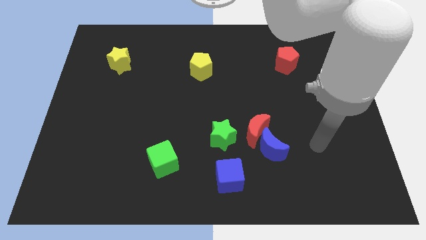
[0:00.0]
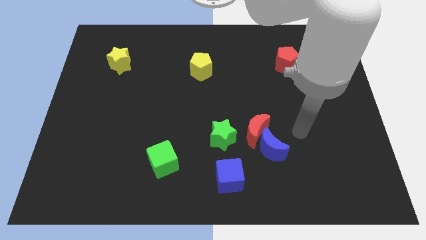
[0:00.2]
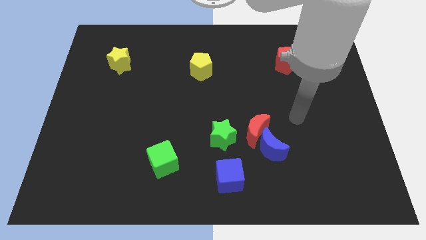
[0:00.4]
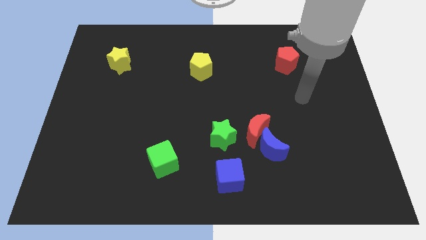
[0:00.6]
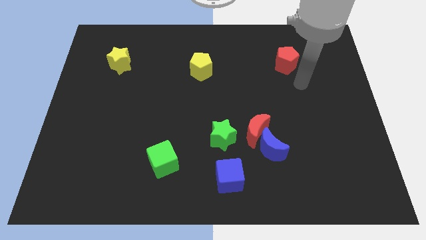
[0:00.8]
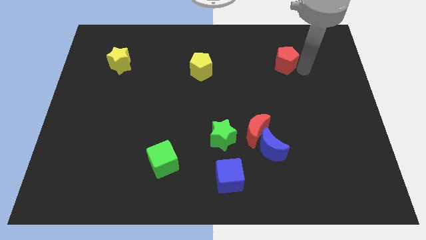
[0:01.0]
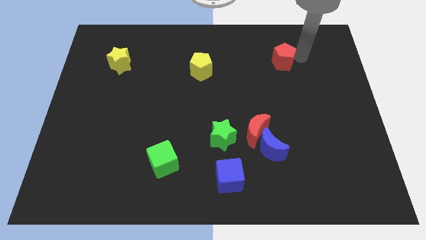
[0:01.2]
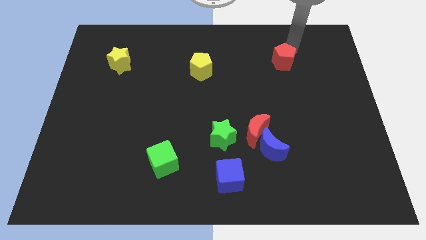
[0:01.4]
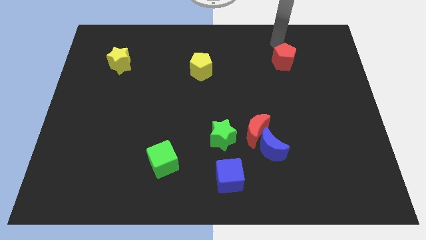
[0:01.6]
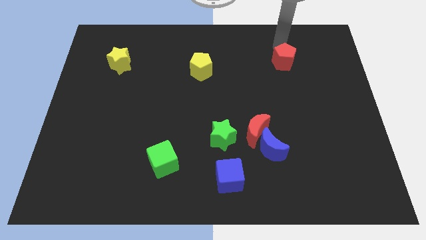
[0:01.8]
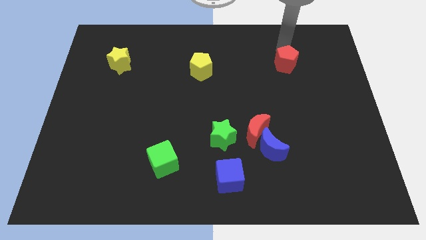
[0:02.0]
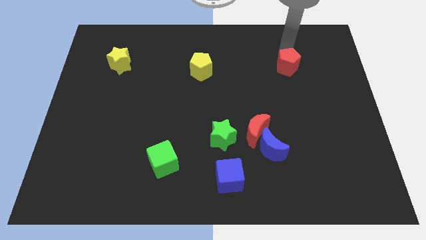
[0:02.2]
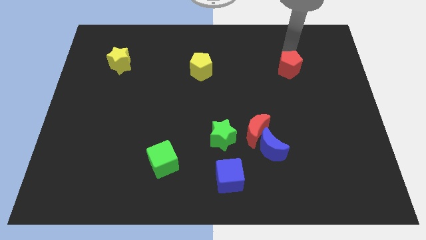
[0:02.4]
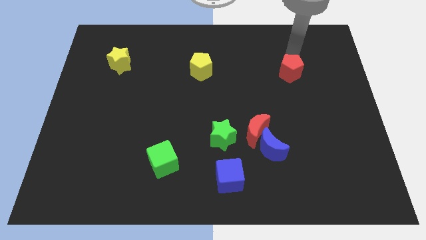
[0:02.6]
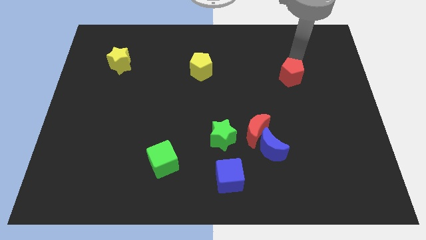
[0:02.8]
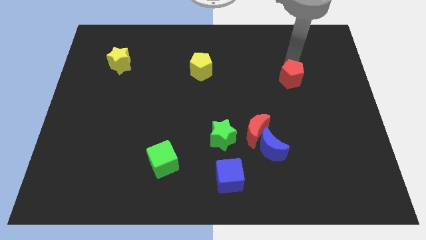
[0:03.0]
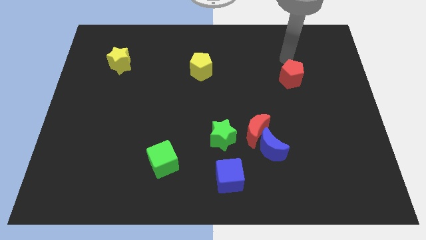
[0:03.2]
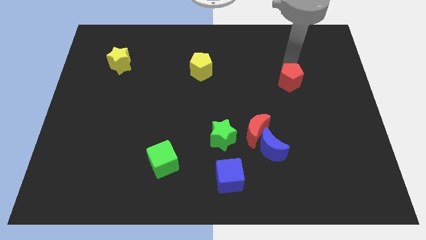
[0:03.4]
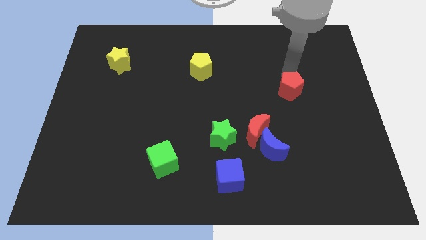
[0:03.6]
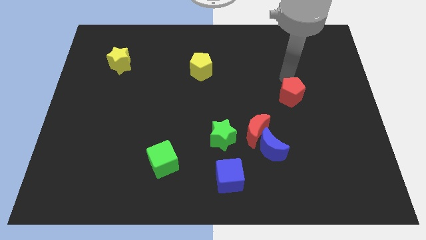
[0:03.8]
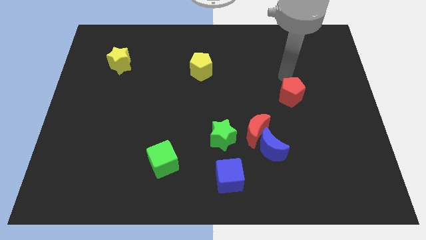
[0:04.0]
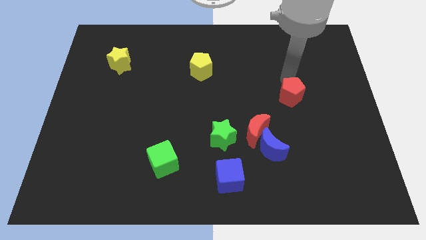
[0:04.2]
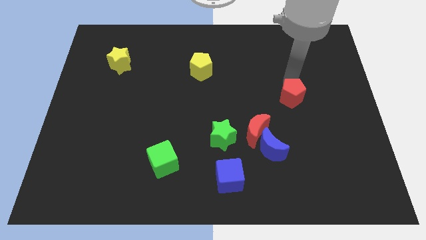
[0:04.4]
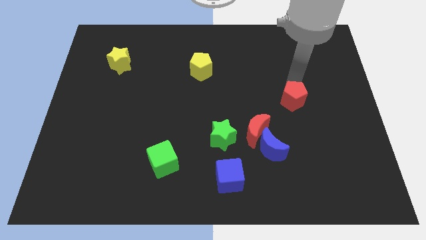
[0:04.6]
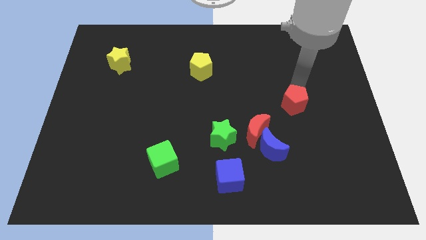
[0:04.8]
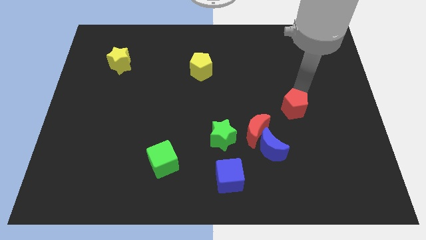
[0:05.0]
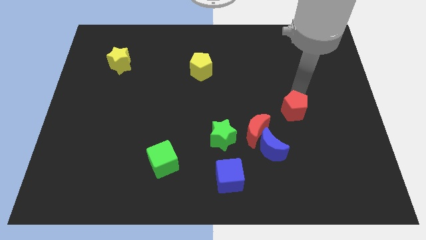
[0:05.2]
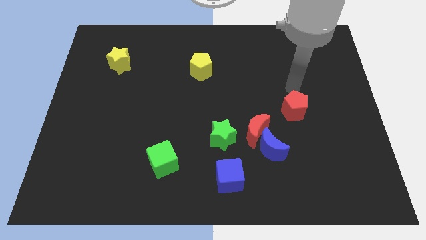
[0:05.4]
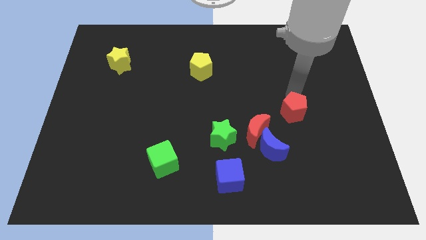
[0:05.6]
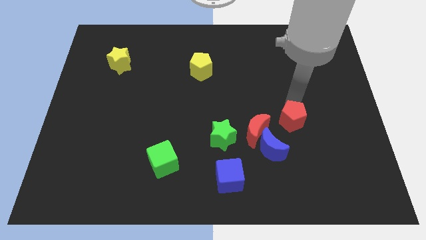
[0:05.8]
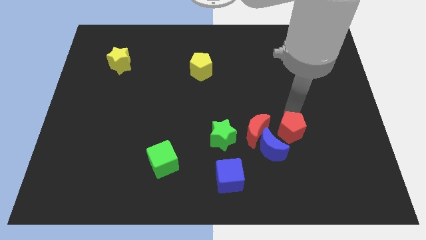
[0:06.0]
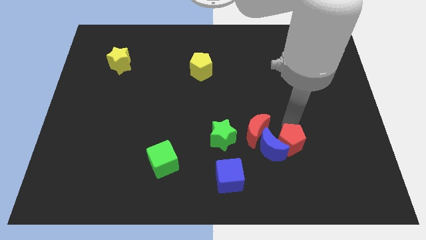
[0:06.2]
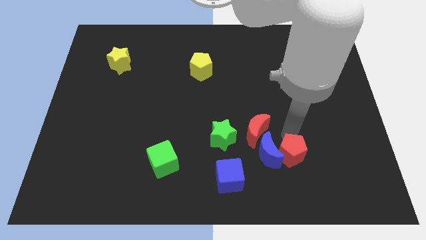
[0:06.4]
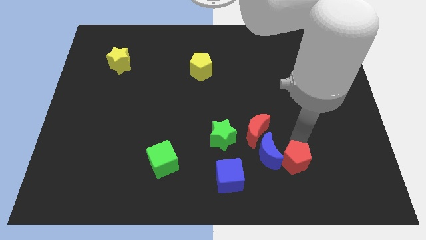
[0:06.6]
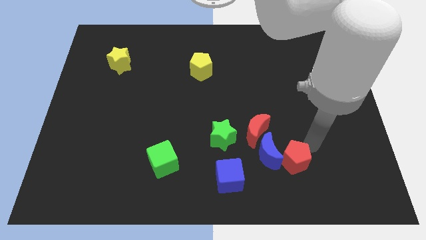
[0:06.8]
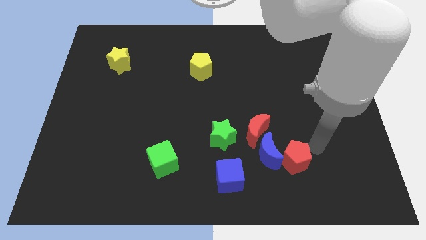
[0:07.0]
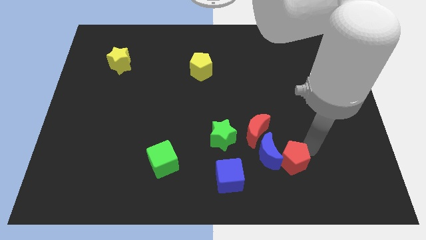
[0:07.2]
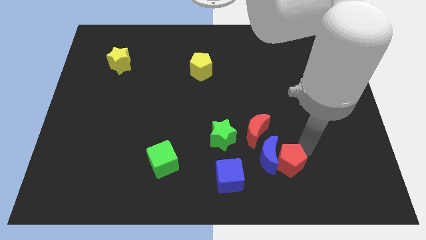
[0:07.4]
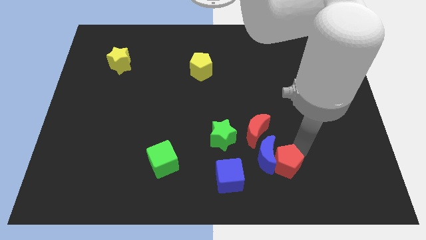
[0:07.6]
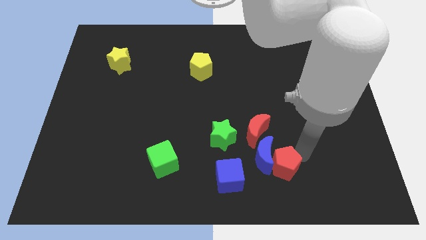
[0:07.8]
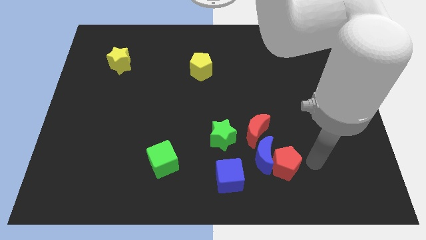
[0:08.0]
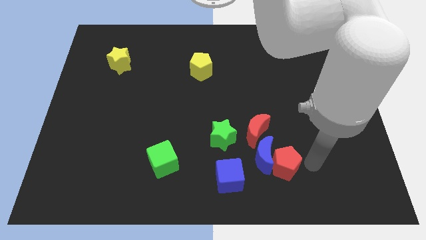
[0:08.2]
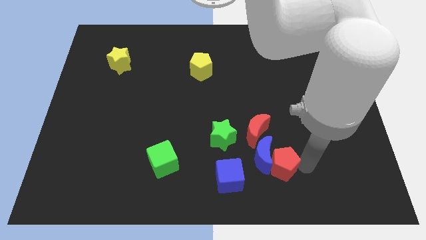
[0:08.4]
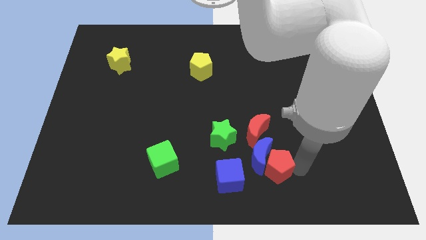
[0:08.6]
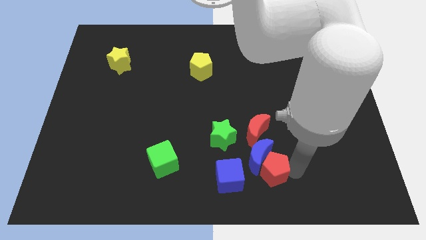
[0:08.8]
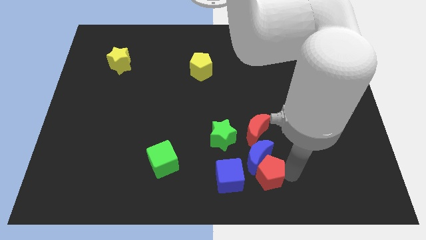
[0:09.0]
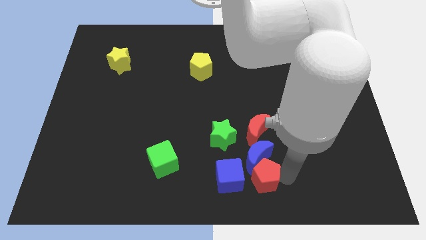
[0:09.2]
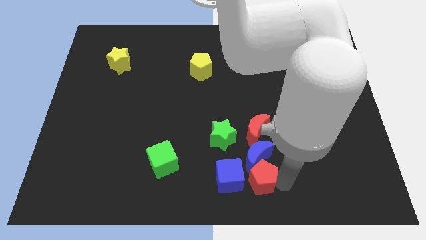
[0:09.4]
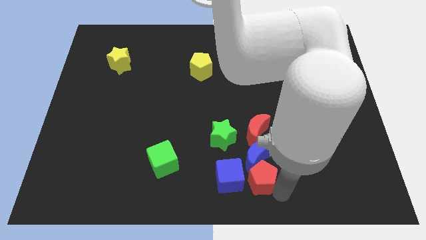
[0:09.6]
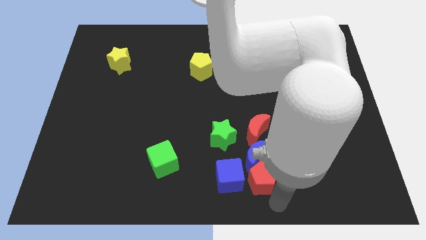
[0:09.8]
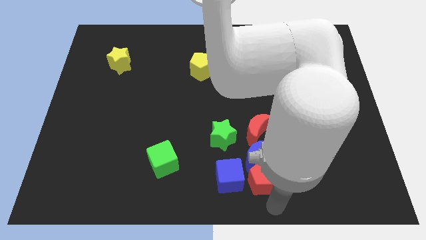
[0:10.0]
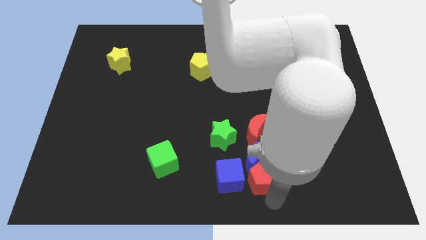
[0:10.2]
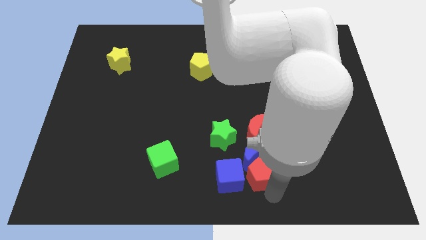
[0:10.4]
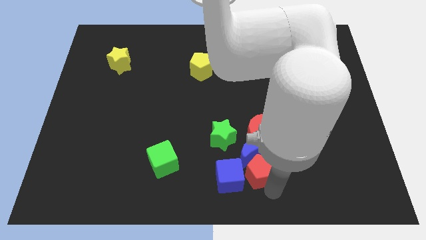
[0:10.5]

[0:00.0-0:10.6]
slide the red pentagon to the blue cube

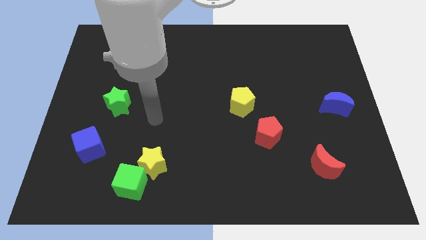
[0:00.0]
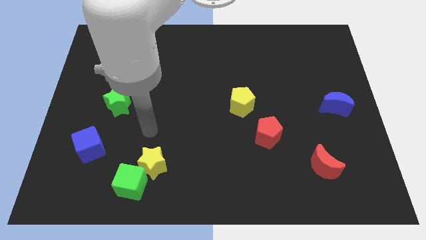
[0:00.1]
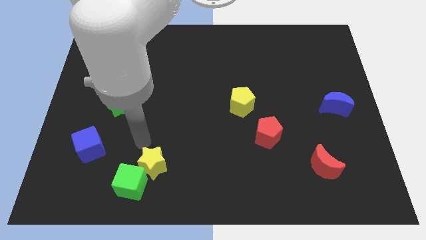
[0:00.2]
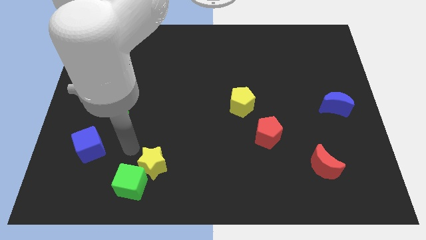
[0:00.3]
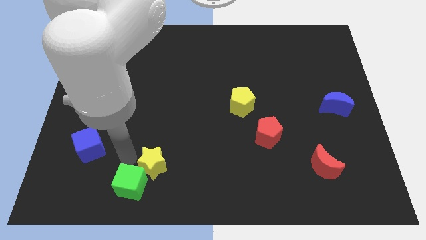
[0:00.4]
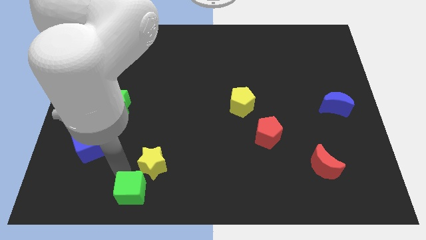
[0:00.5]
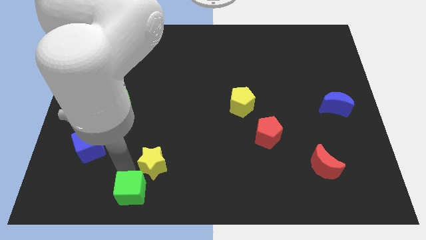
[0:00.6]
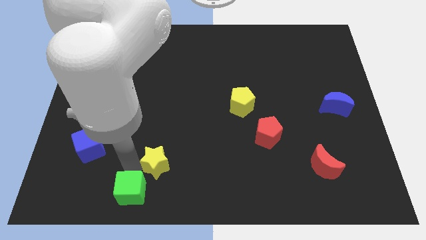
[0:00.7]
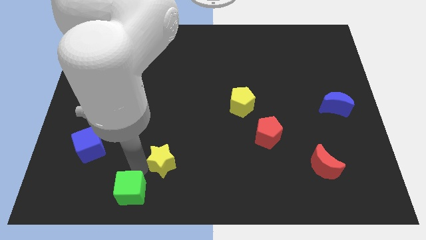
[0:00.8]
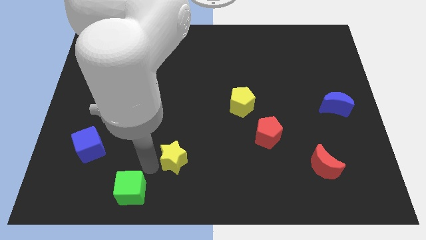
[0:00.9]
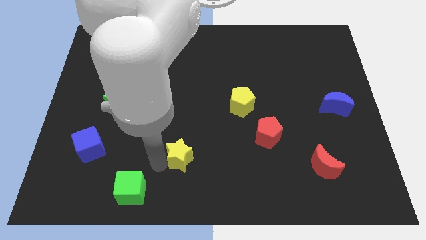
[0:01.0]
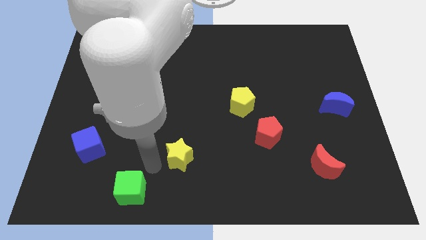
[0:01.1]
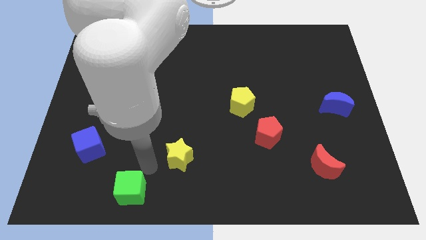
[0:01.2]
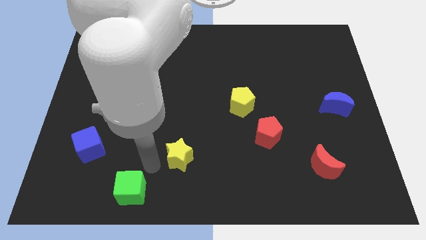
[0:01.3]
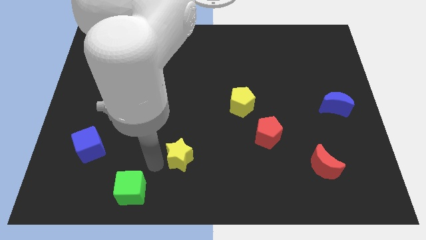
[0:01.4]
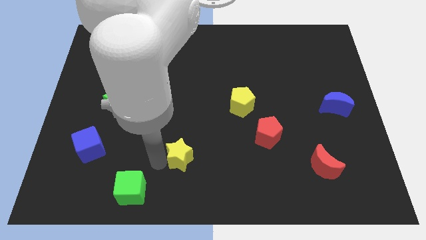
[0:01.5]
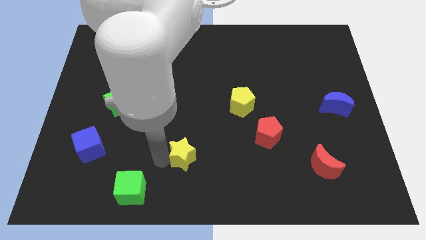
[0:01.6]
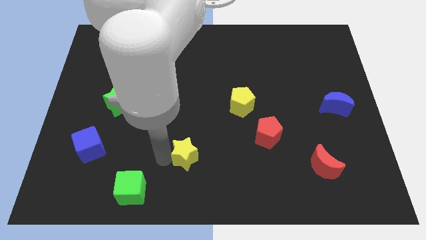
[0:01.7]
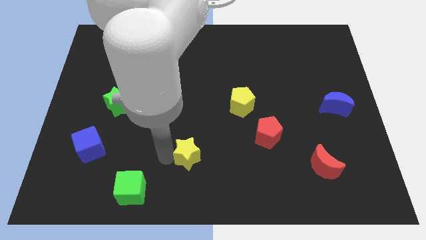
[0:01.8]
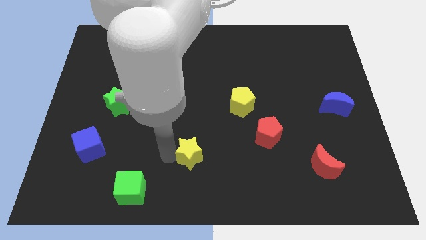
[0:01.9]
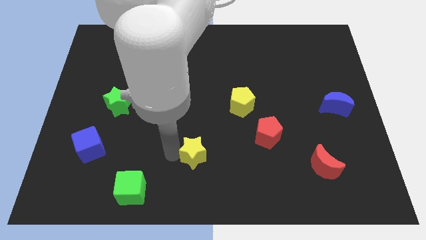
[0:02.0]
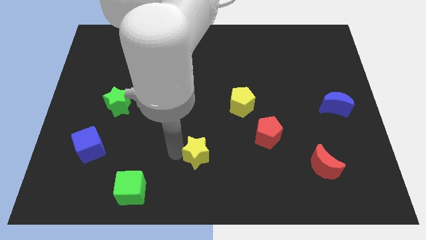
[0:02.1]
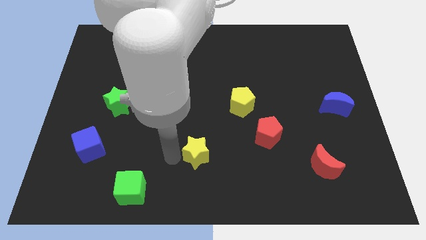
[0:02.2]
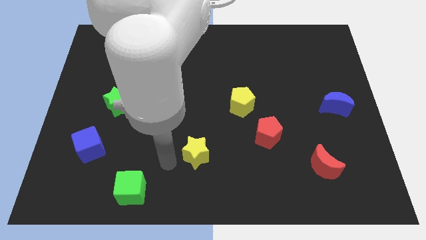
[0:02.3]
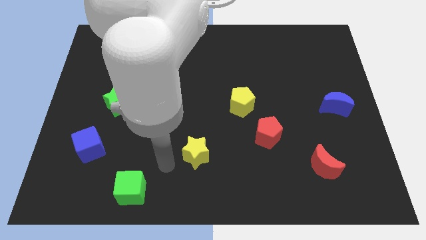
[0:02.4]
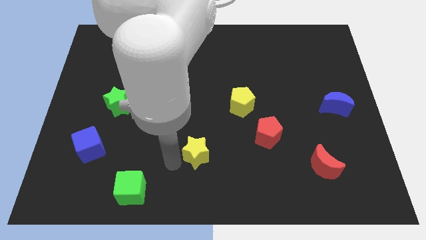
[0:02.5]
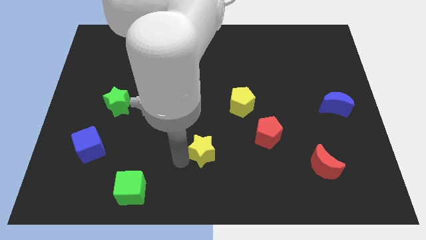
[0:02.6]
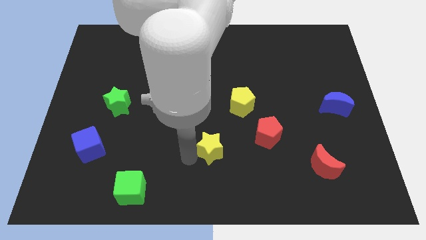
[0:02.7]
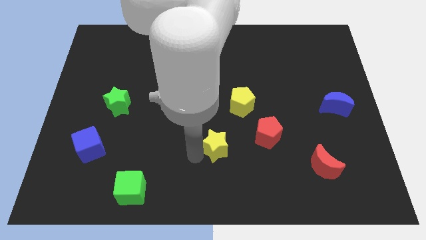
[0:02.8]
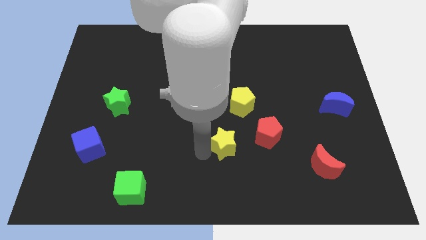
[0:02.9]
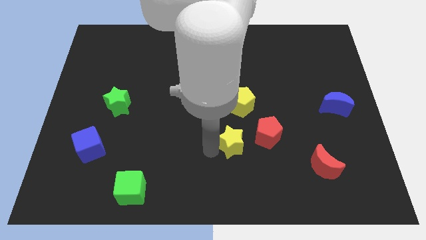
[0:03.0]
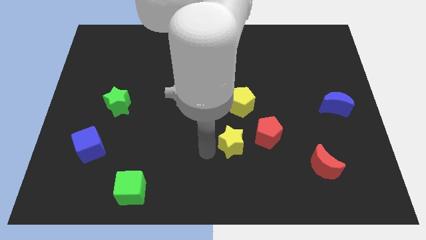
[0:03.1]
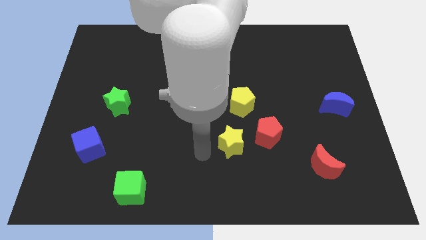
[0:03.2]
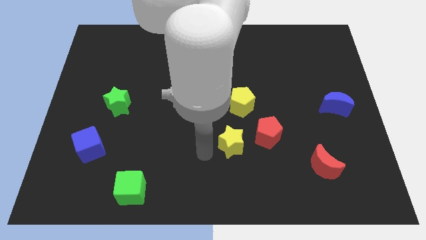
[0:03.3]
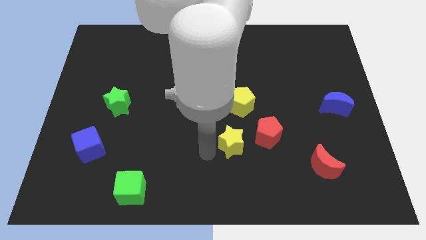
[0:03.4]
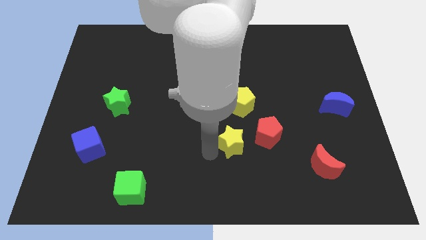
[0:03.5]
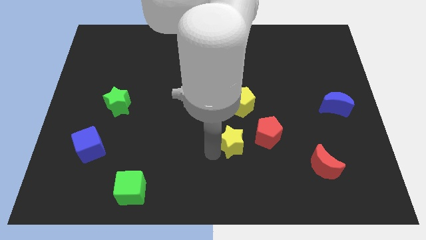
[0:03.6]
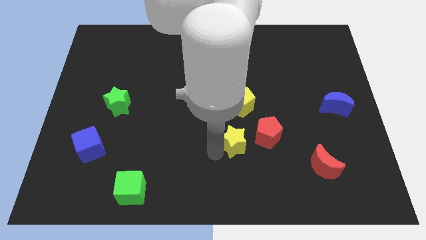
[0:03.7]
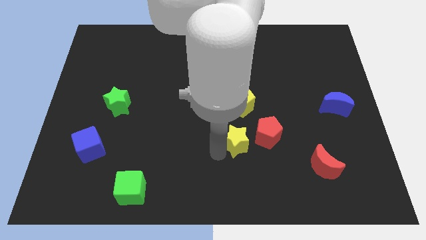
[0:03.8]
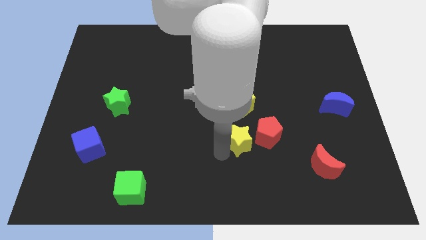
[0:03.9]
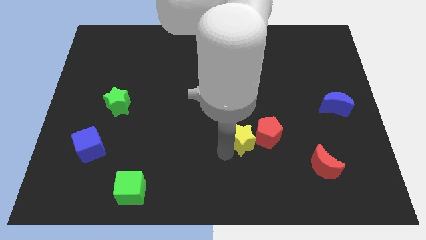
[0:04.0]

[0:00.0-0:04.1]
put the yellow star close to the red pentagon
